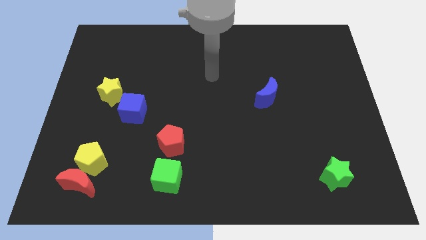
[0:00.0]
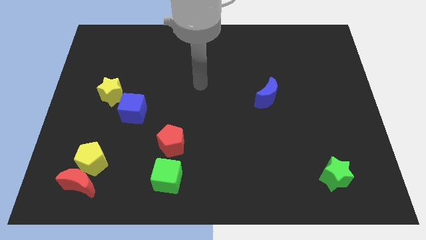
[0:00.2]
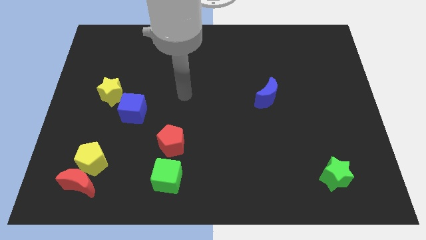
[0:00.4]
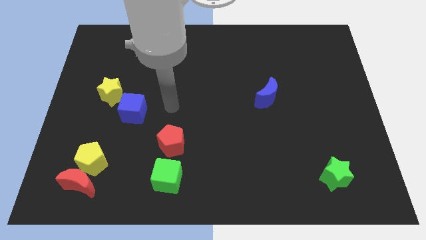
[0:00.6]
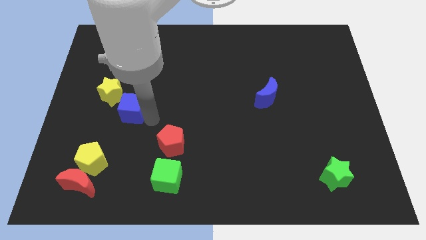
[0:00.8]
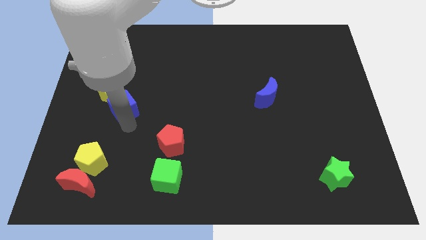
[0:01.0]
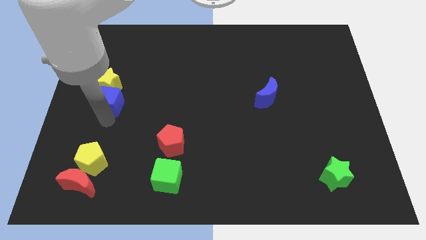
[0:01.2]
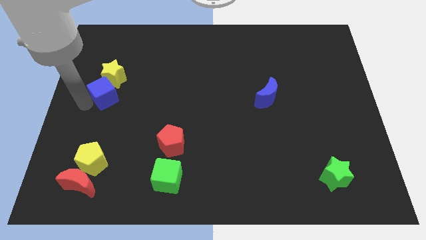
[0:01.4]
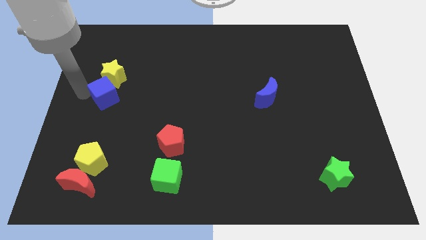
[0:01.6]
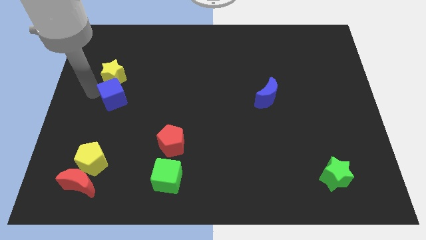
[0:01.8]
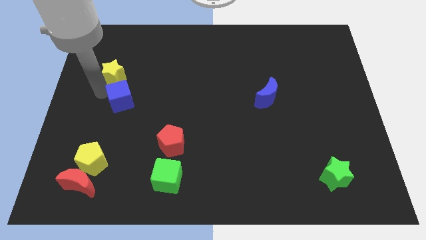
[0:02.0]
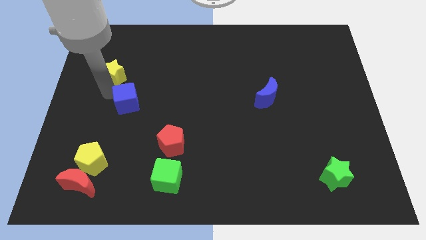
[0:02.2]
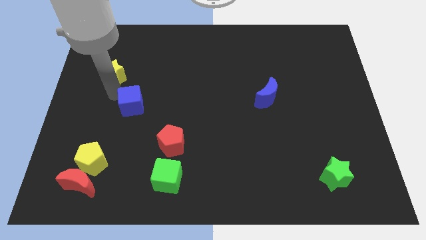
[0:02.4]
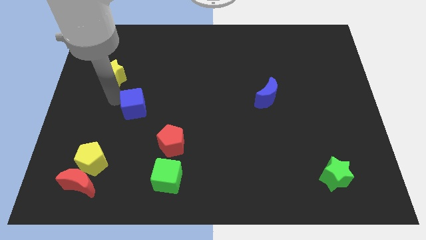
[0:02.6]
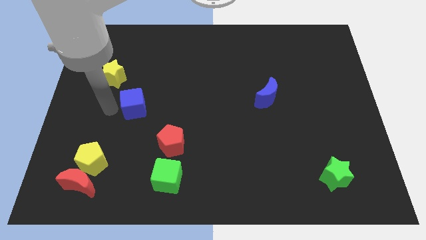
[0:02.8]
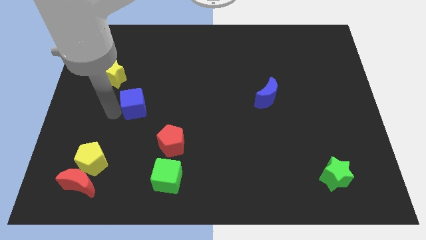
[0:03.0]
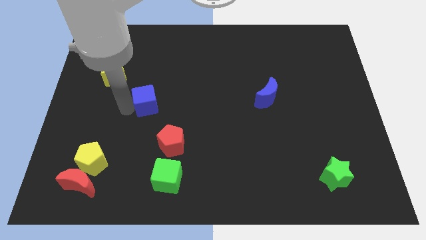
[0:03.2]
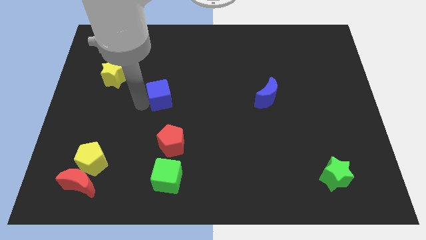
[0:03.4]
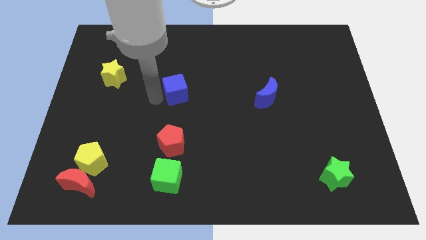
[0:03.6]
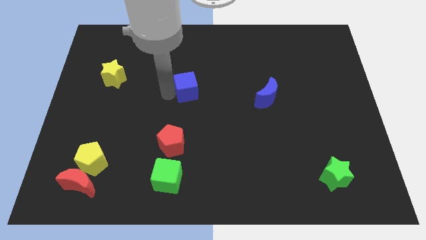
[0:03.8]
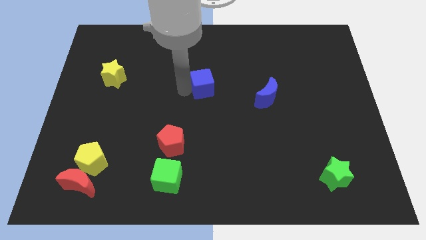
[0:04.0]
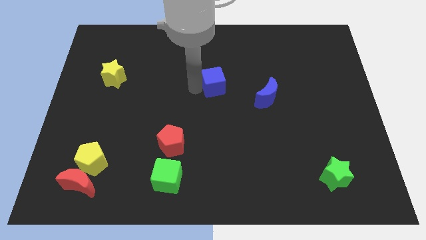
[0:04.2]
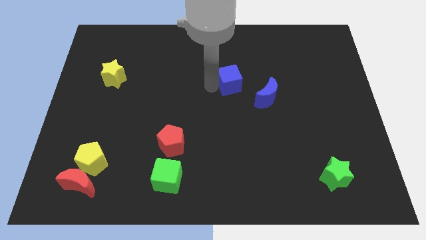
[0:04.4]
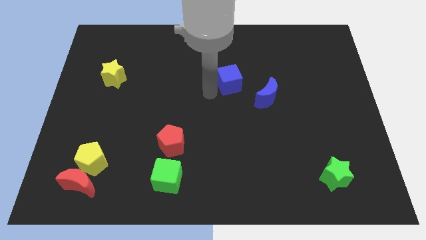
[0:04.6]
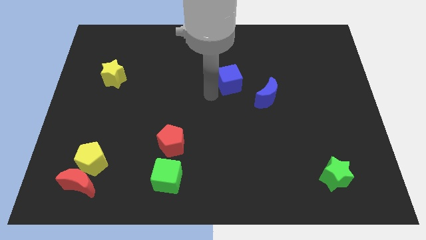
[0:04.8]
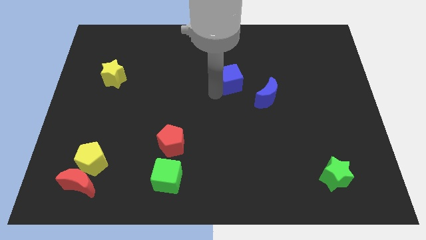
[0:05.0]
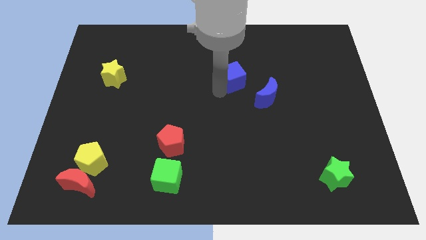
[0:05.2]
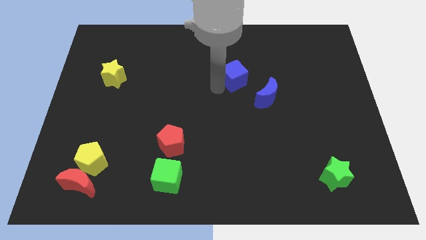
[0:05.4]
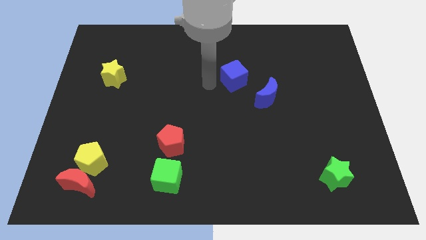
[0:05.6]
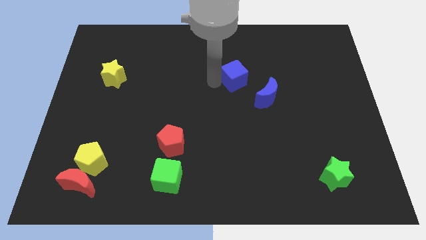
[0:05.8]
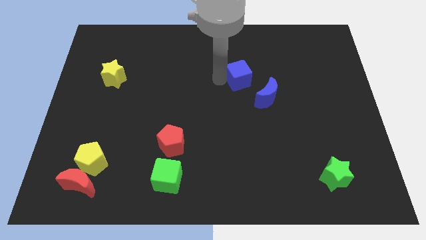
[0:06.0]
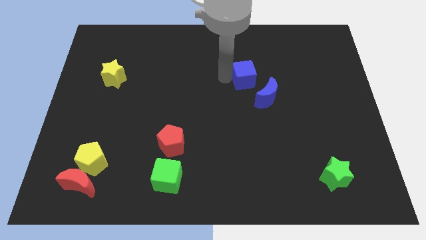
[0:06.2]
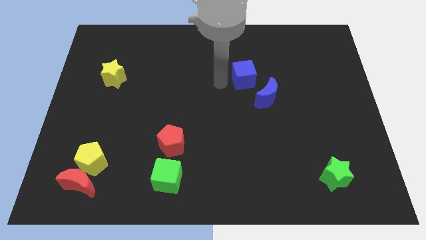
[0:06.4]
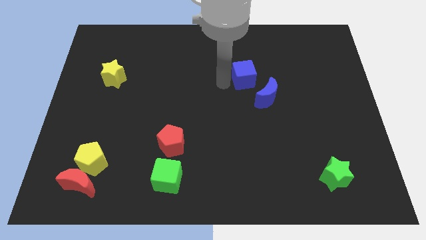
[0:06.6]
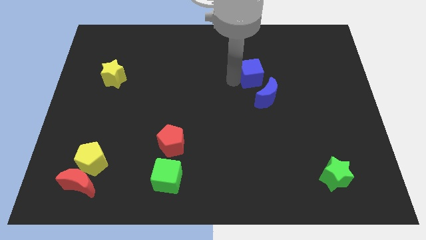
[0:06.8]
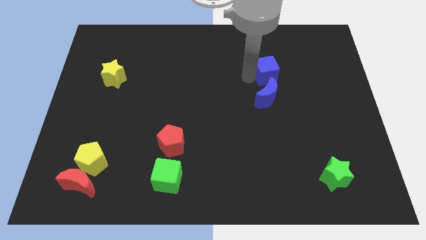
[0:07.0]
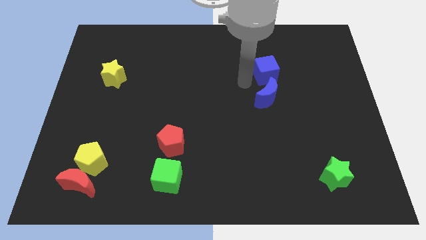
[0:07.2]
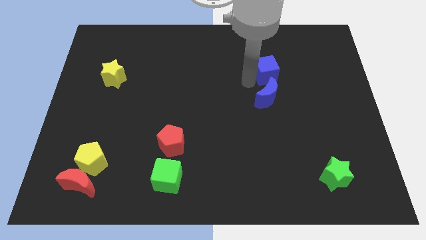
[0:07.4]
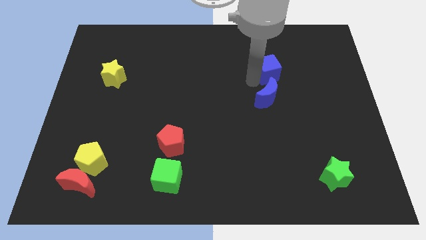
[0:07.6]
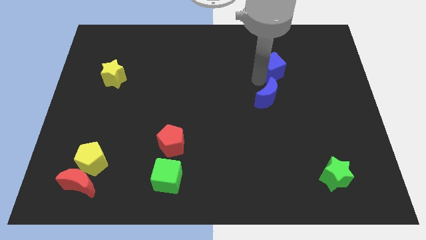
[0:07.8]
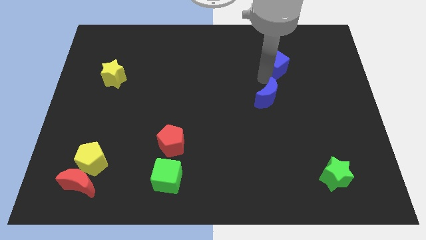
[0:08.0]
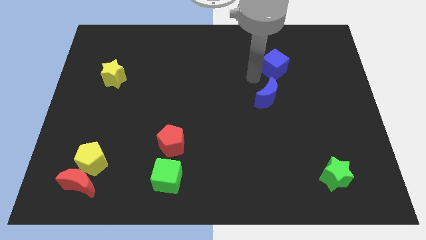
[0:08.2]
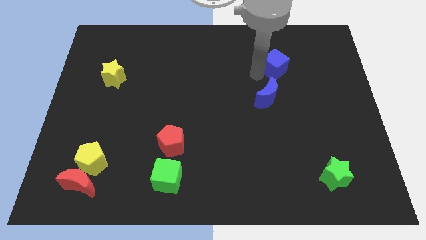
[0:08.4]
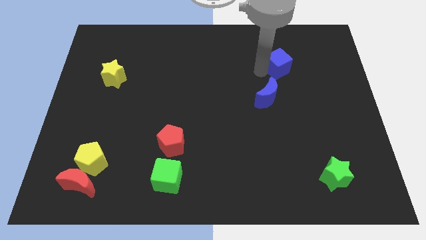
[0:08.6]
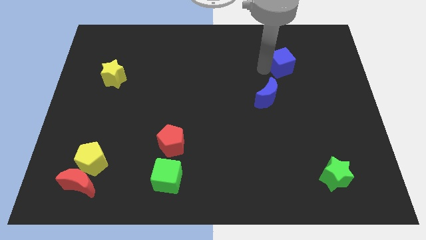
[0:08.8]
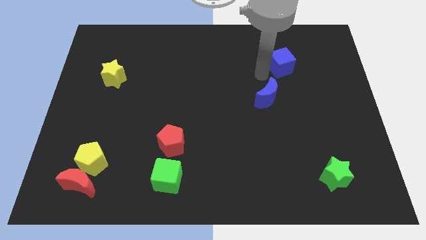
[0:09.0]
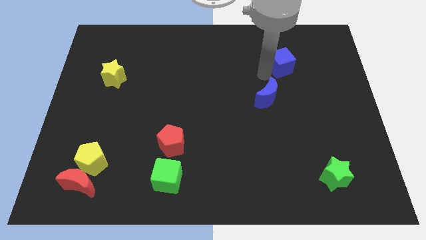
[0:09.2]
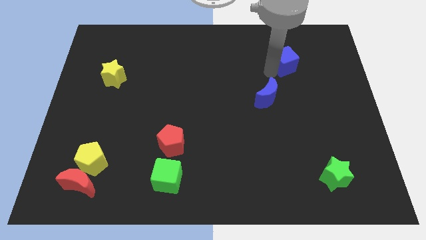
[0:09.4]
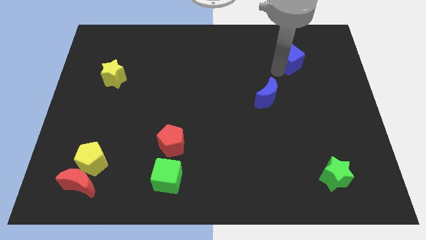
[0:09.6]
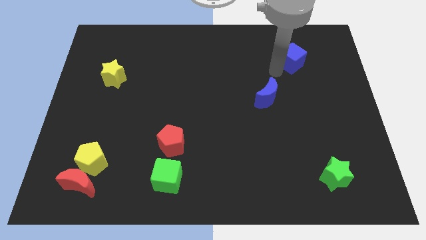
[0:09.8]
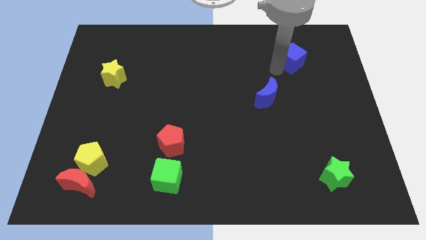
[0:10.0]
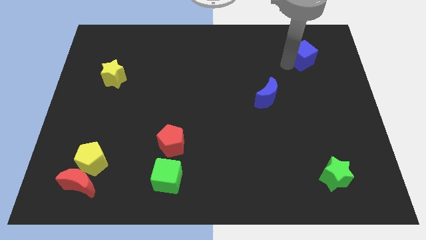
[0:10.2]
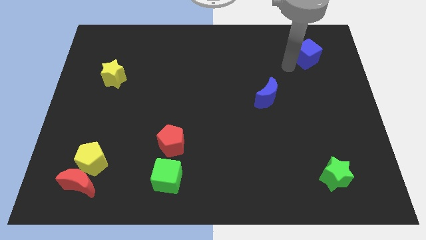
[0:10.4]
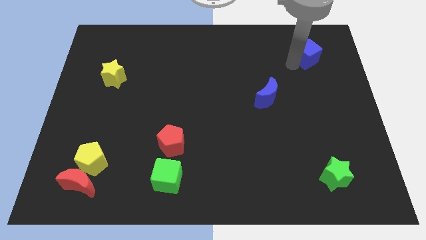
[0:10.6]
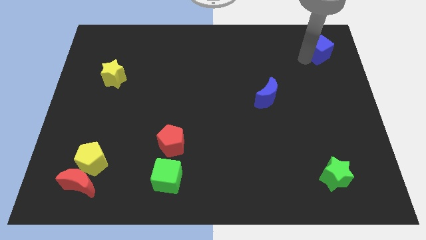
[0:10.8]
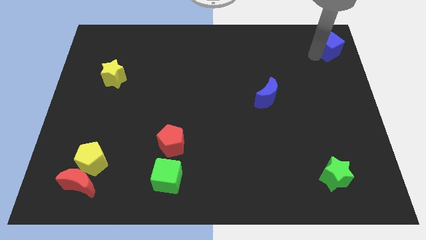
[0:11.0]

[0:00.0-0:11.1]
slide the blue cube to the top right corner

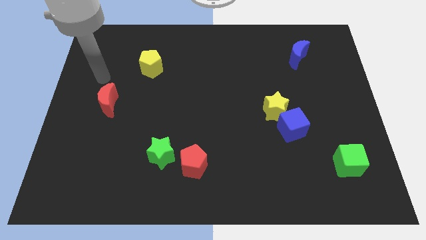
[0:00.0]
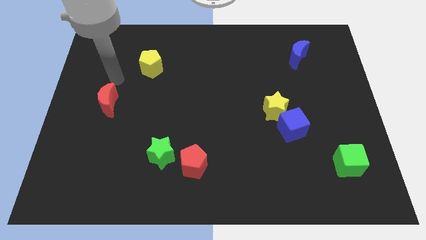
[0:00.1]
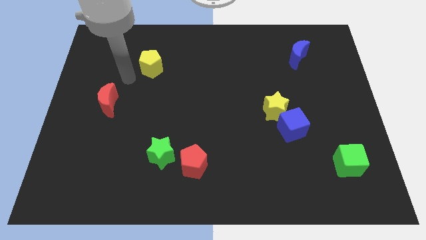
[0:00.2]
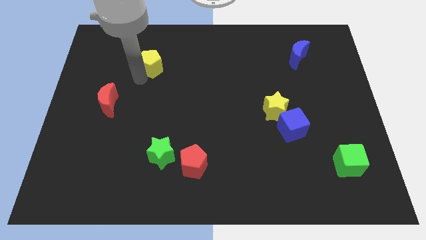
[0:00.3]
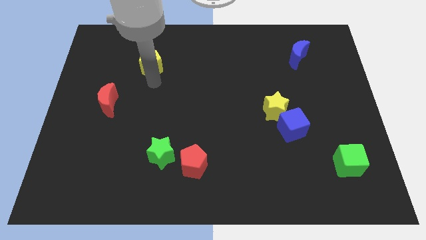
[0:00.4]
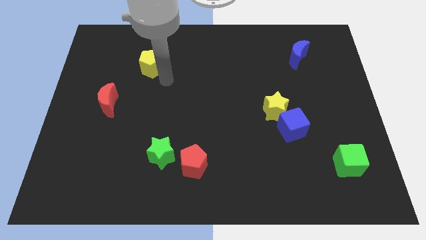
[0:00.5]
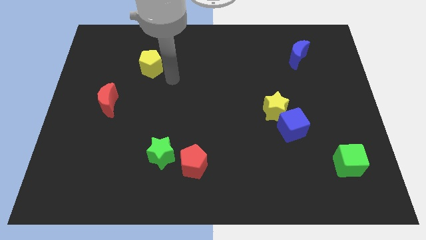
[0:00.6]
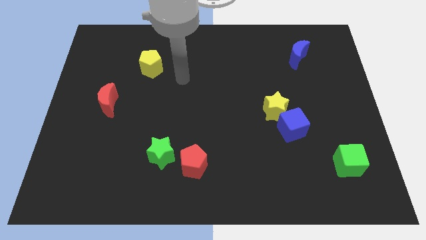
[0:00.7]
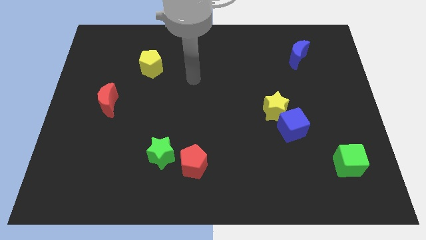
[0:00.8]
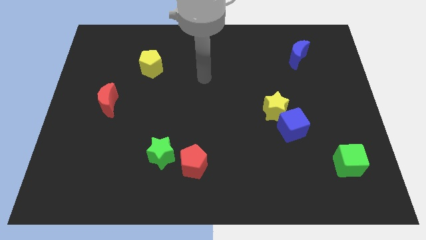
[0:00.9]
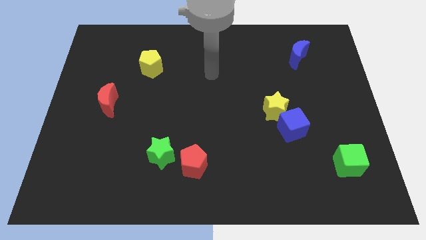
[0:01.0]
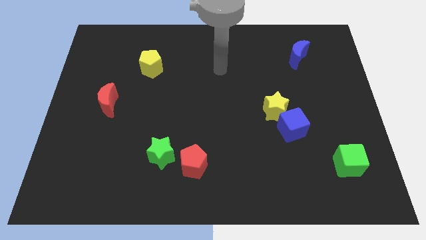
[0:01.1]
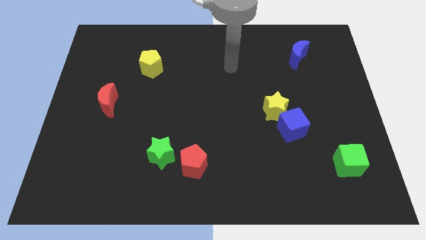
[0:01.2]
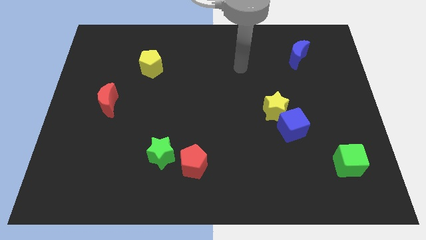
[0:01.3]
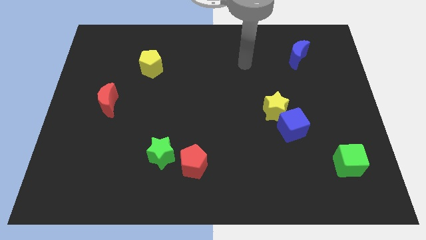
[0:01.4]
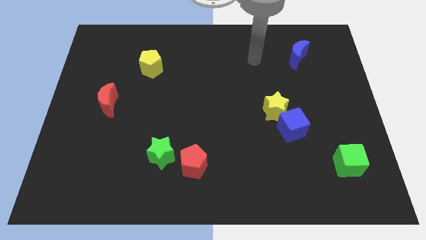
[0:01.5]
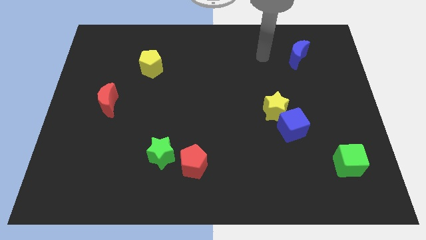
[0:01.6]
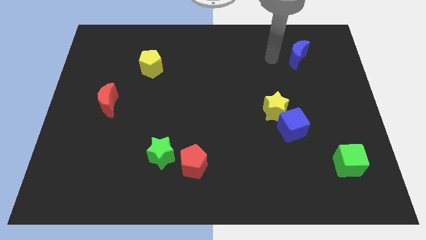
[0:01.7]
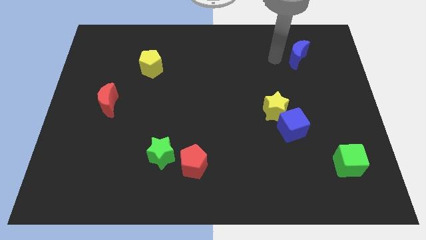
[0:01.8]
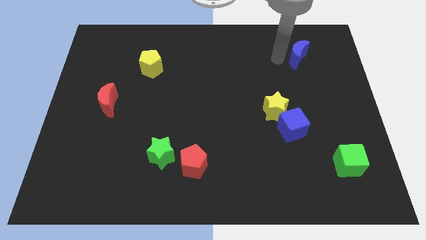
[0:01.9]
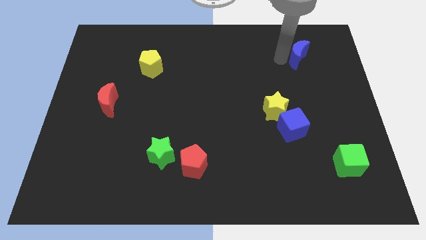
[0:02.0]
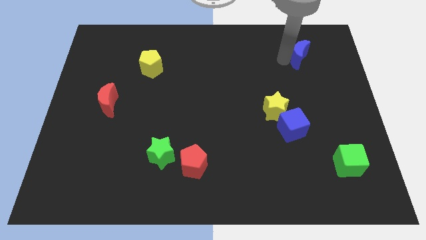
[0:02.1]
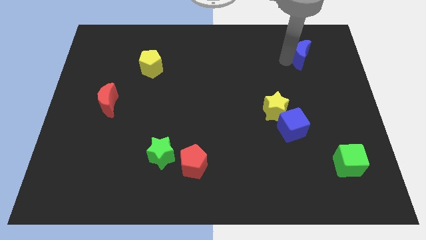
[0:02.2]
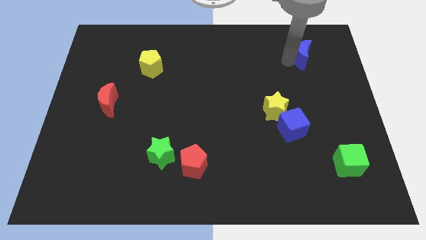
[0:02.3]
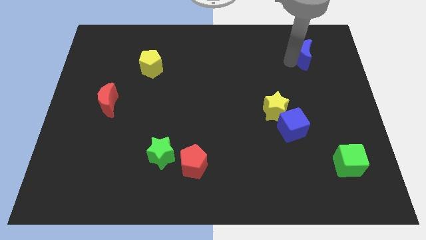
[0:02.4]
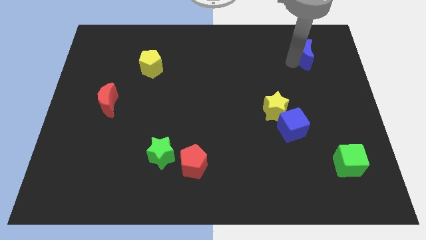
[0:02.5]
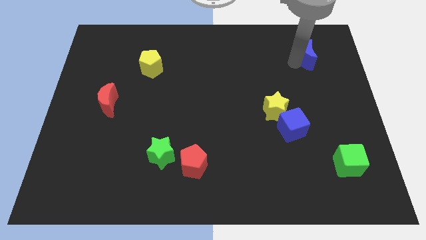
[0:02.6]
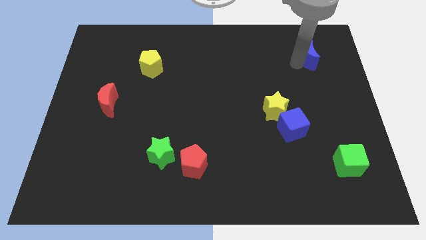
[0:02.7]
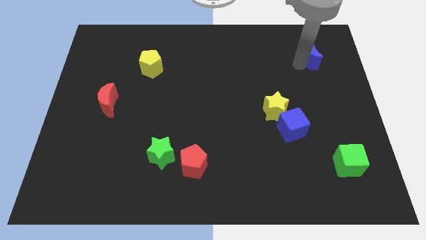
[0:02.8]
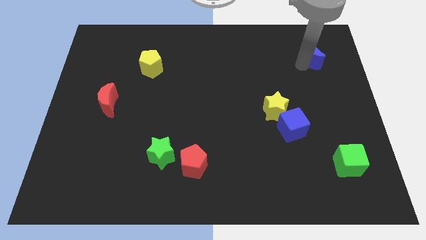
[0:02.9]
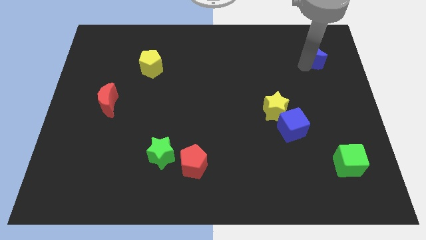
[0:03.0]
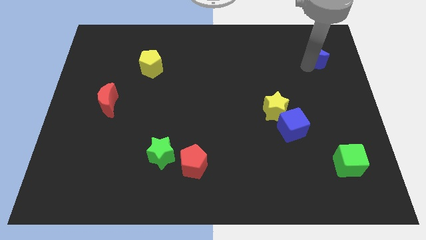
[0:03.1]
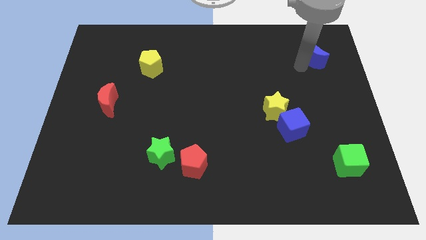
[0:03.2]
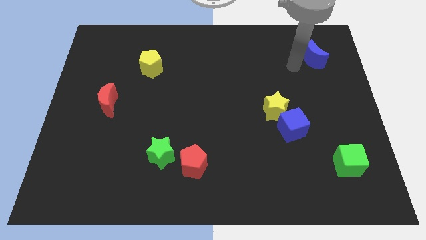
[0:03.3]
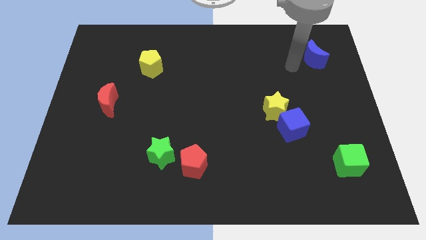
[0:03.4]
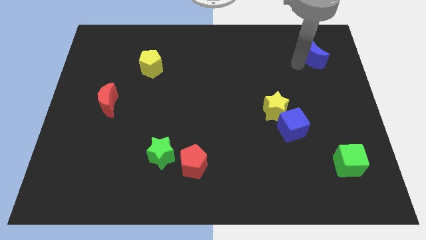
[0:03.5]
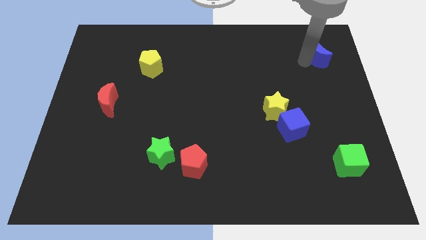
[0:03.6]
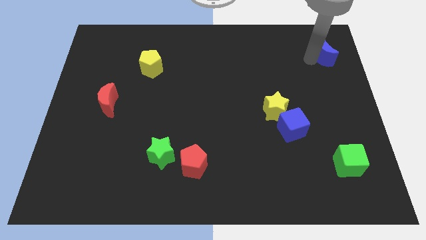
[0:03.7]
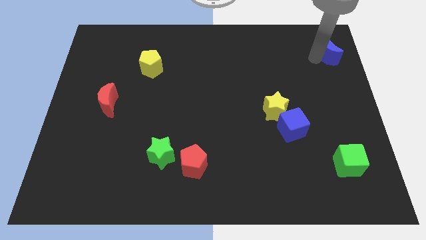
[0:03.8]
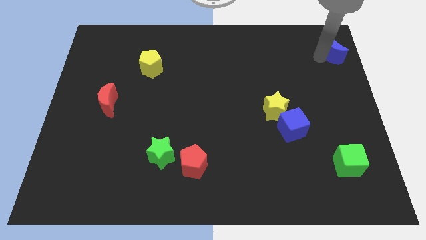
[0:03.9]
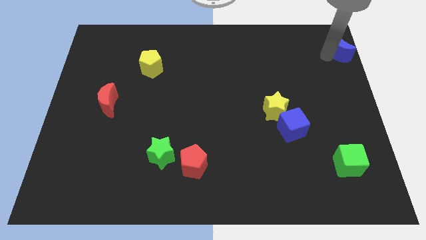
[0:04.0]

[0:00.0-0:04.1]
move the blue moon to the top right corner
